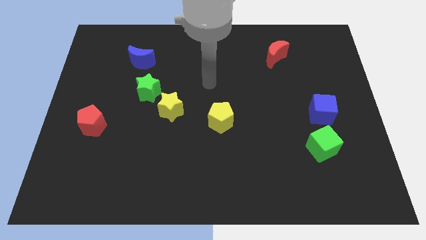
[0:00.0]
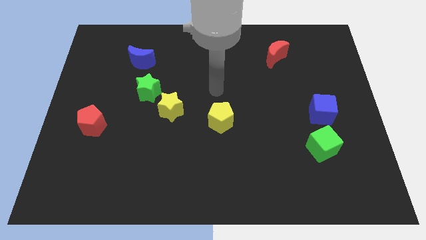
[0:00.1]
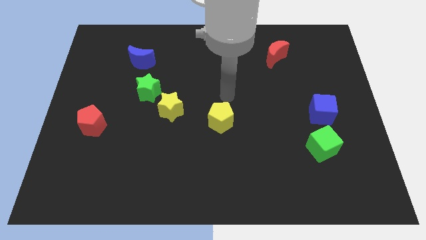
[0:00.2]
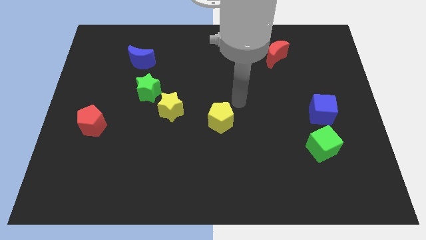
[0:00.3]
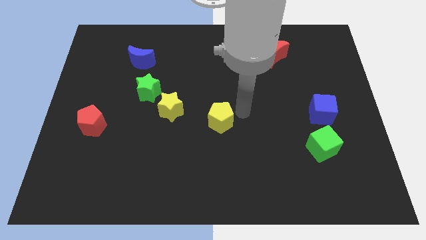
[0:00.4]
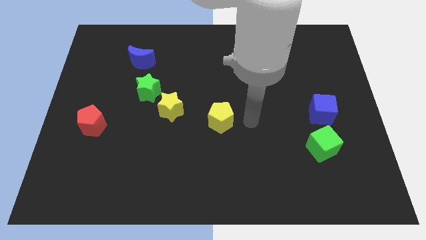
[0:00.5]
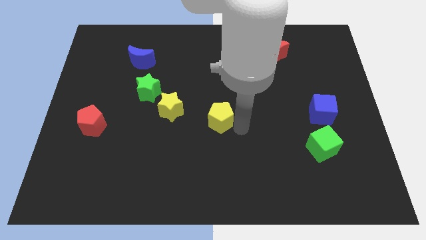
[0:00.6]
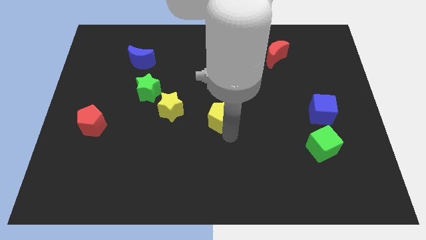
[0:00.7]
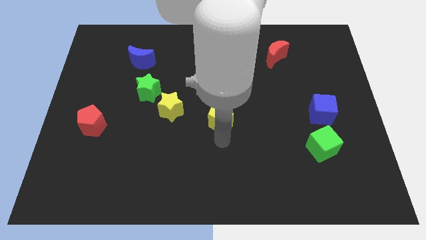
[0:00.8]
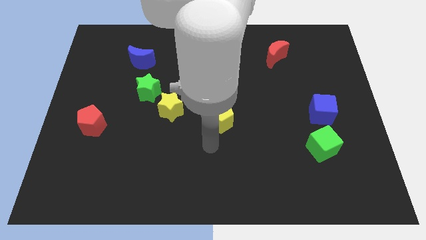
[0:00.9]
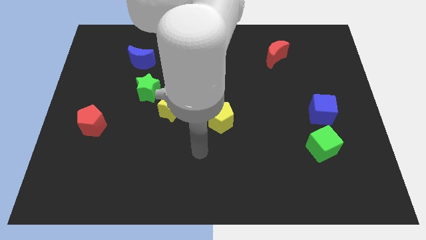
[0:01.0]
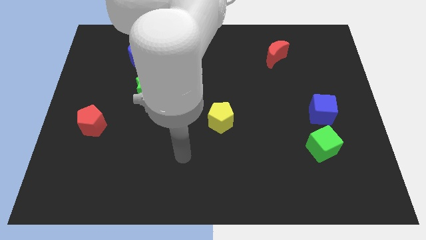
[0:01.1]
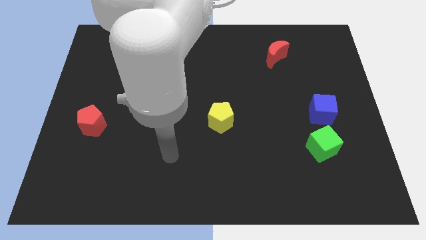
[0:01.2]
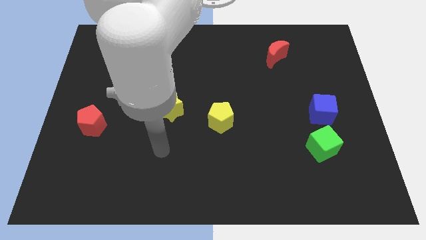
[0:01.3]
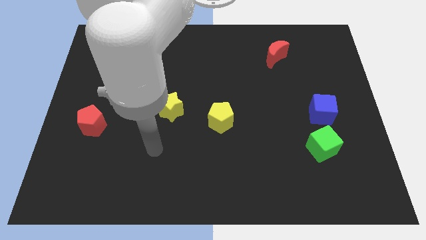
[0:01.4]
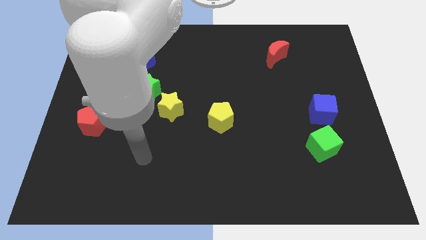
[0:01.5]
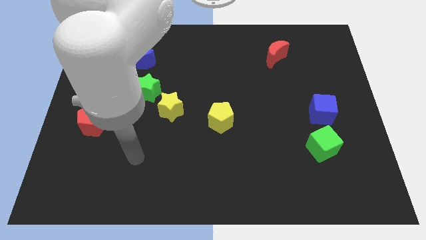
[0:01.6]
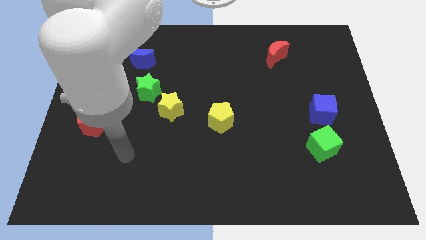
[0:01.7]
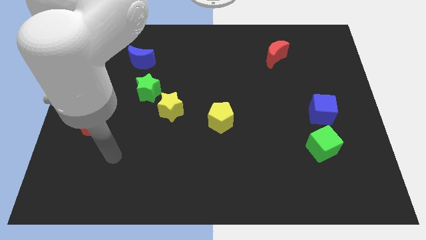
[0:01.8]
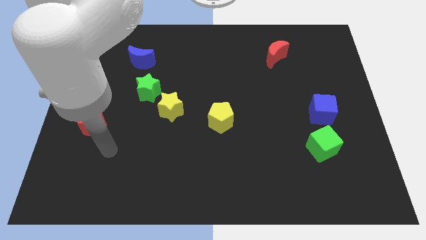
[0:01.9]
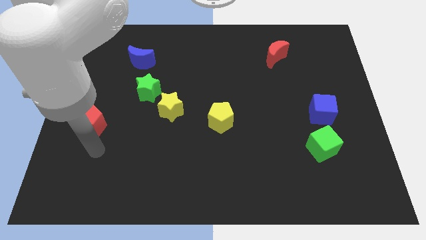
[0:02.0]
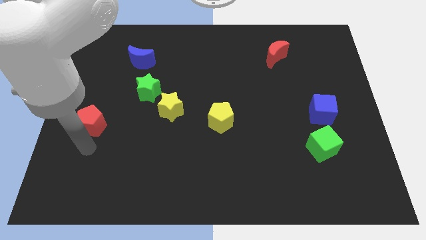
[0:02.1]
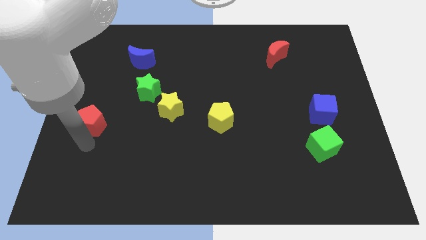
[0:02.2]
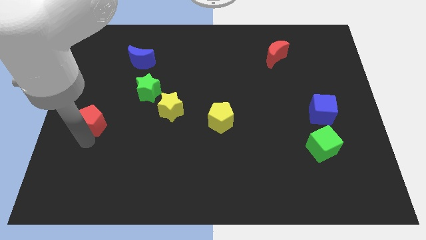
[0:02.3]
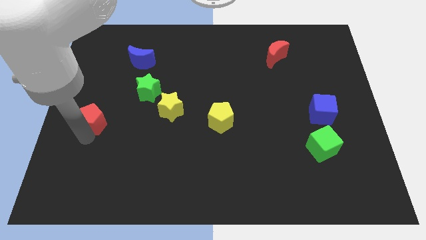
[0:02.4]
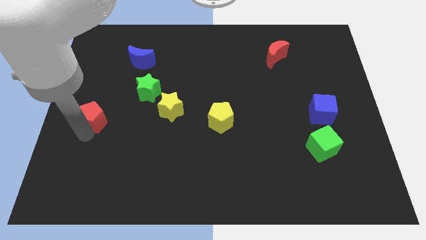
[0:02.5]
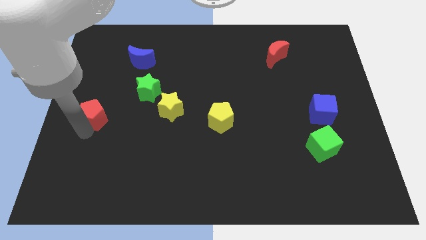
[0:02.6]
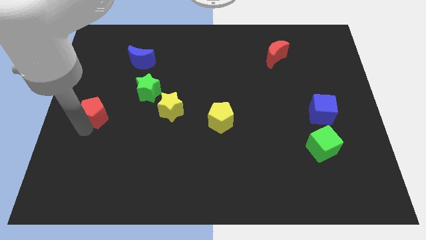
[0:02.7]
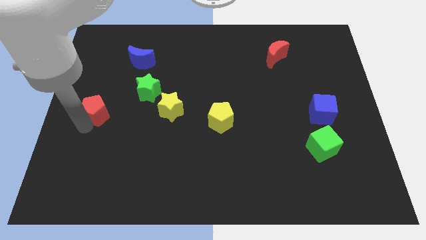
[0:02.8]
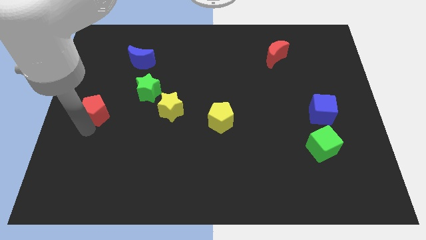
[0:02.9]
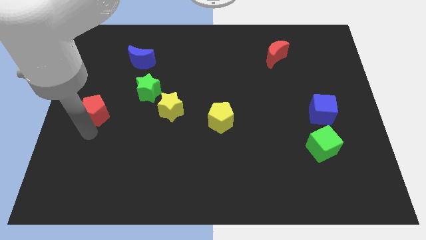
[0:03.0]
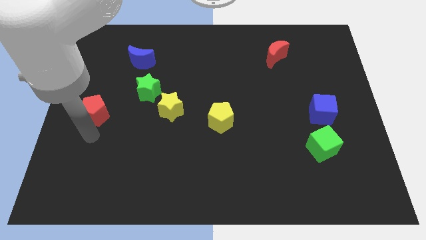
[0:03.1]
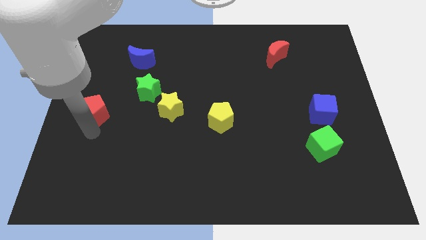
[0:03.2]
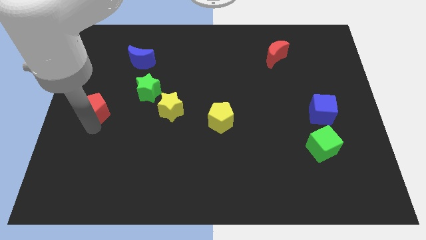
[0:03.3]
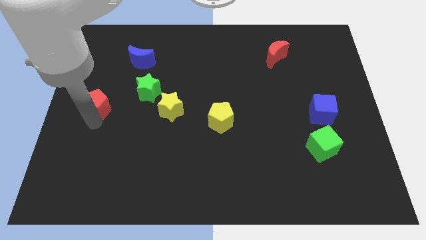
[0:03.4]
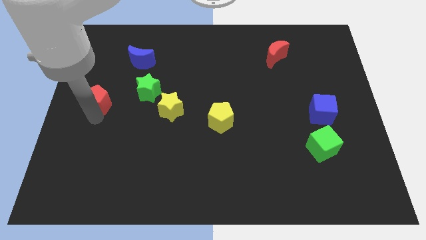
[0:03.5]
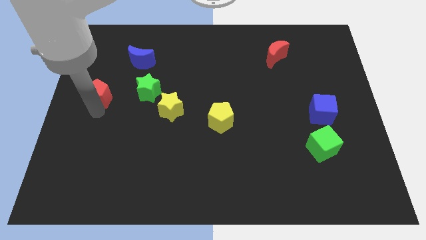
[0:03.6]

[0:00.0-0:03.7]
move the red pentagon slightly upwards

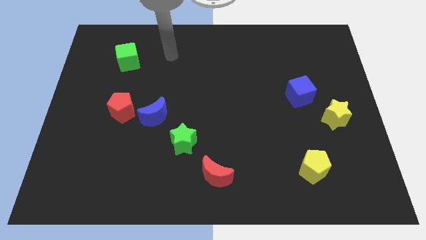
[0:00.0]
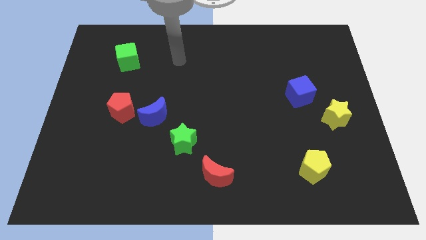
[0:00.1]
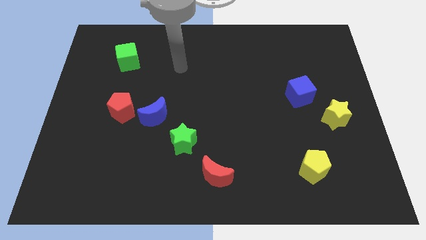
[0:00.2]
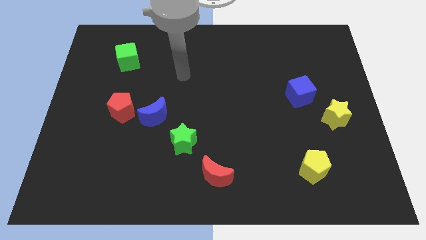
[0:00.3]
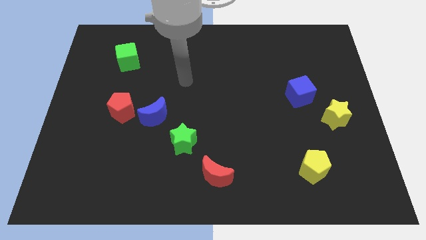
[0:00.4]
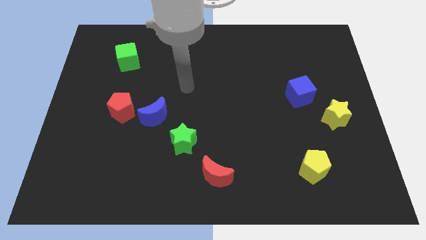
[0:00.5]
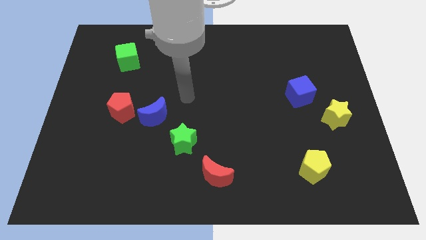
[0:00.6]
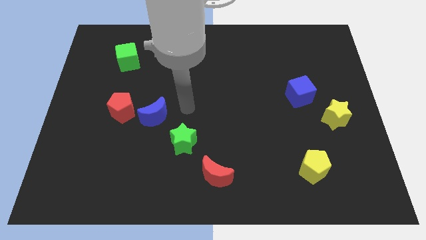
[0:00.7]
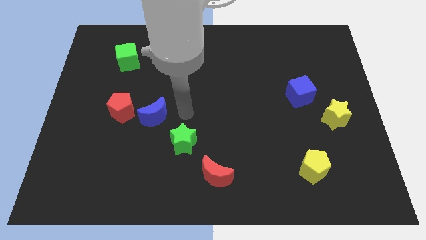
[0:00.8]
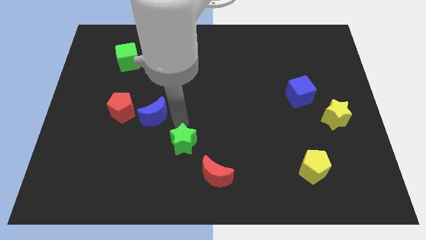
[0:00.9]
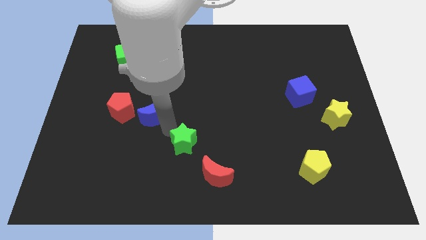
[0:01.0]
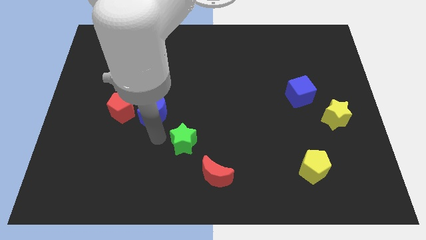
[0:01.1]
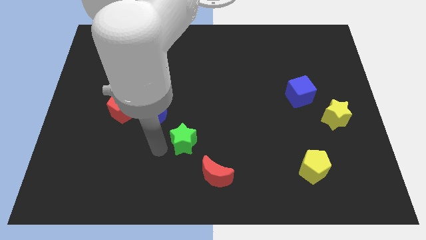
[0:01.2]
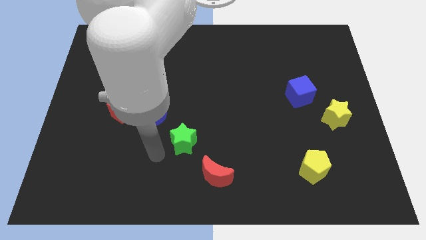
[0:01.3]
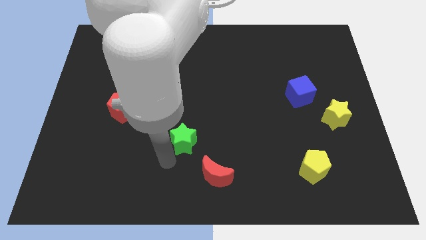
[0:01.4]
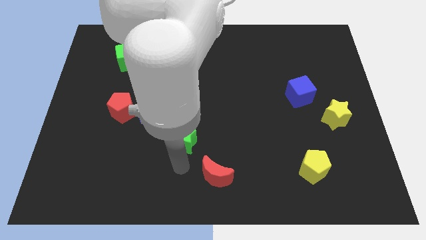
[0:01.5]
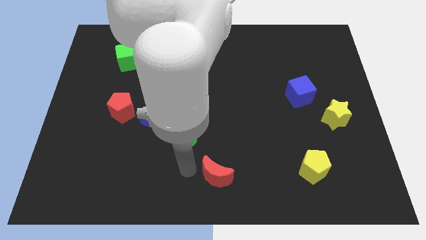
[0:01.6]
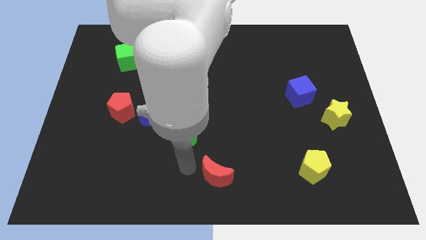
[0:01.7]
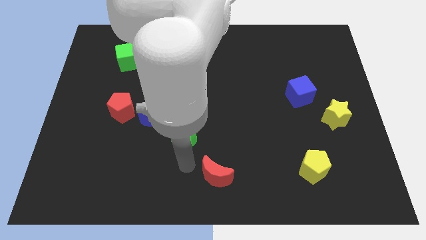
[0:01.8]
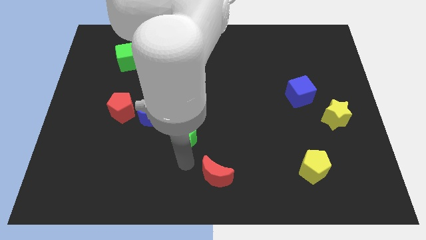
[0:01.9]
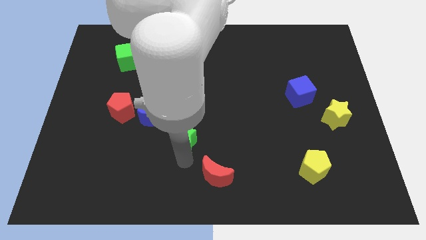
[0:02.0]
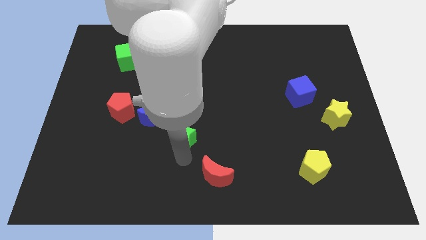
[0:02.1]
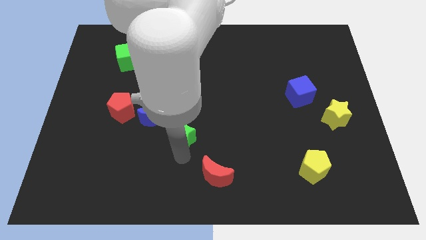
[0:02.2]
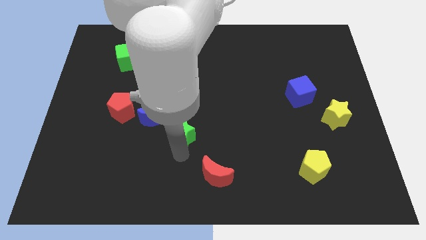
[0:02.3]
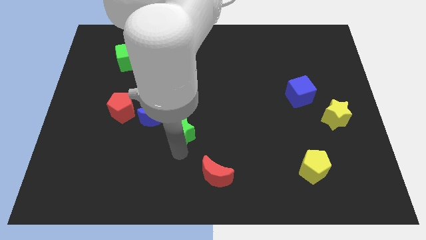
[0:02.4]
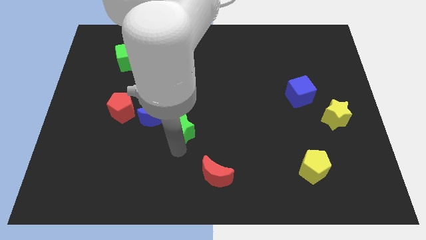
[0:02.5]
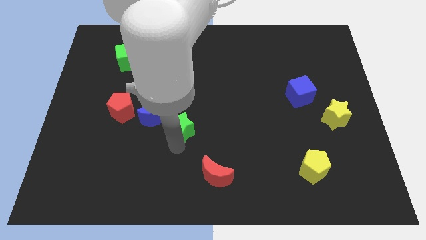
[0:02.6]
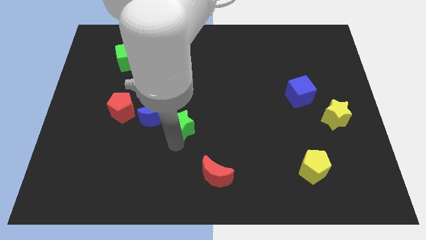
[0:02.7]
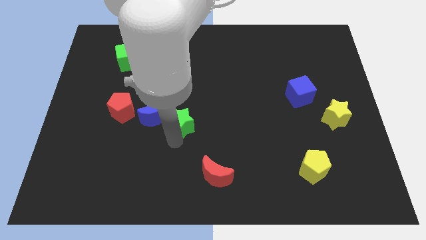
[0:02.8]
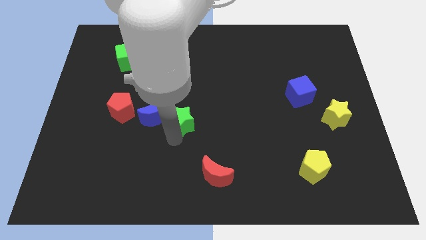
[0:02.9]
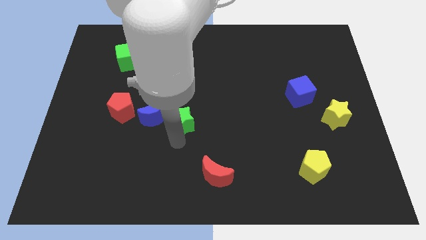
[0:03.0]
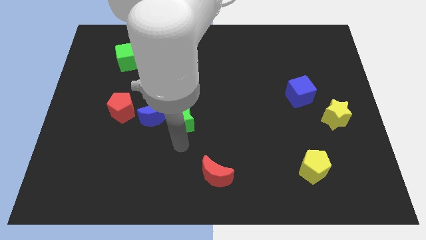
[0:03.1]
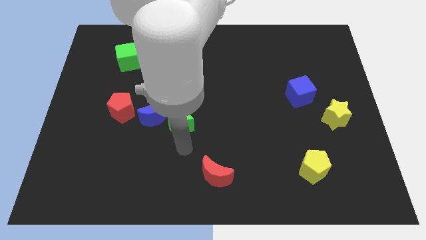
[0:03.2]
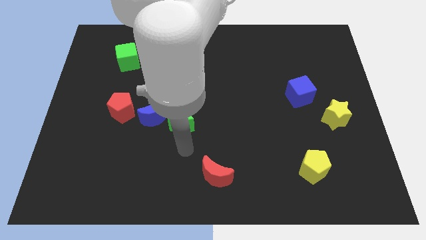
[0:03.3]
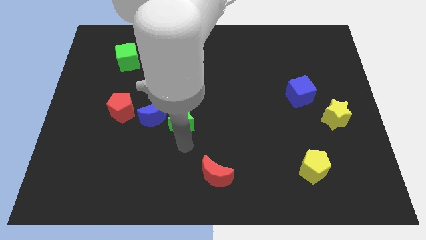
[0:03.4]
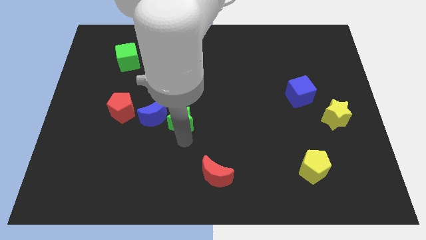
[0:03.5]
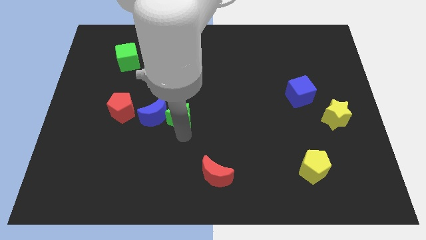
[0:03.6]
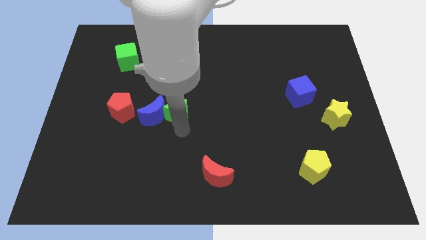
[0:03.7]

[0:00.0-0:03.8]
move the green star upwards a little

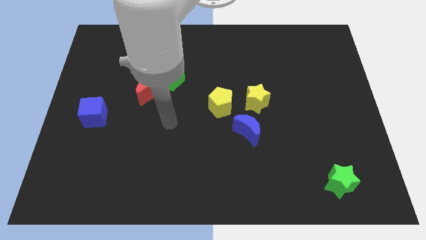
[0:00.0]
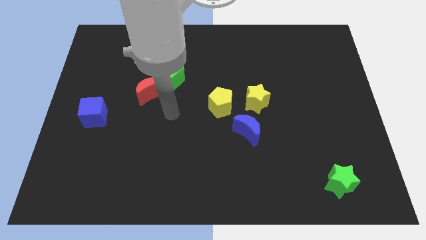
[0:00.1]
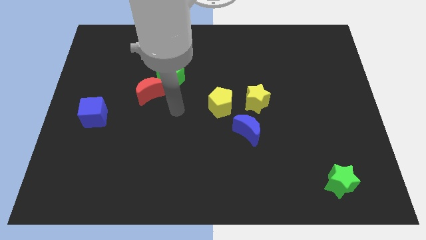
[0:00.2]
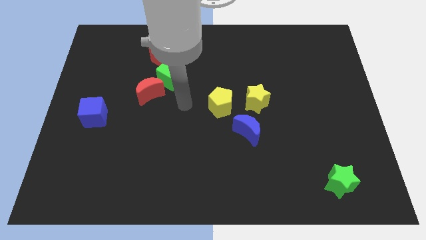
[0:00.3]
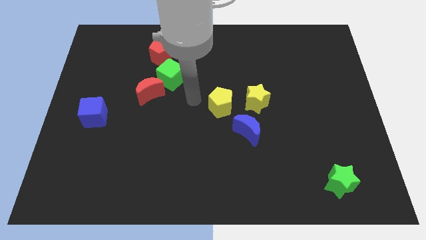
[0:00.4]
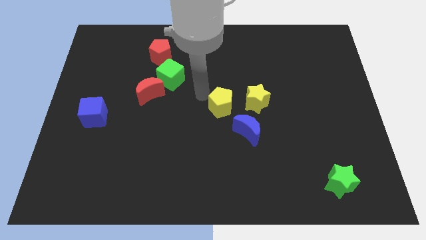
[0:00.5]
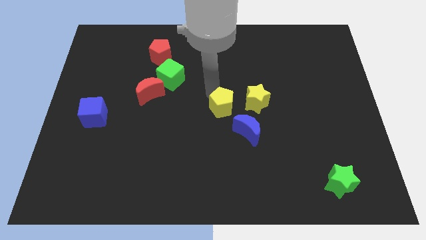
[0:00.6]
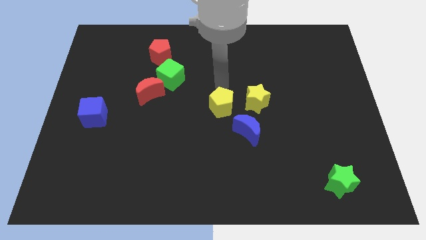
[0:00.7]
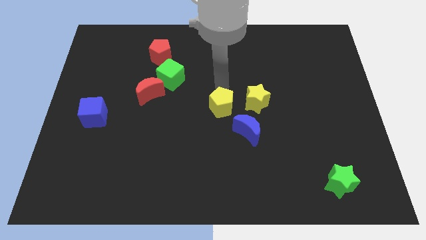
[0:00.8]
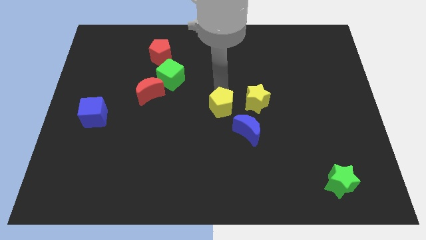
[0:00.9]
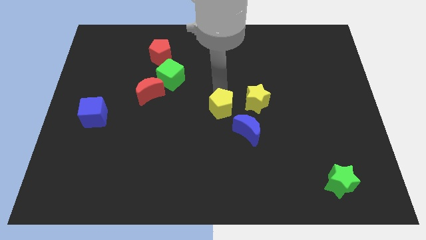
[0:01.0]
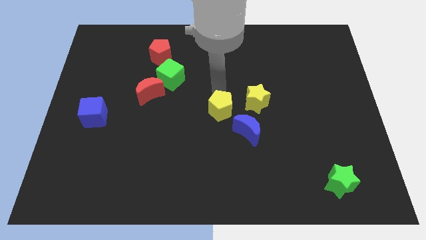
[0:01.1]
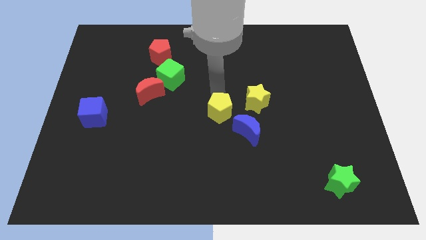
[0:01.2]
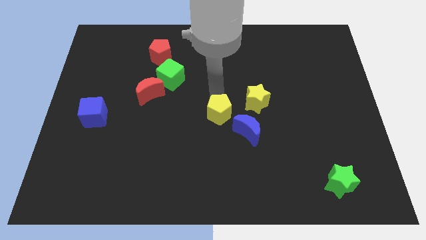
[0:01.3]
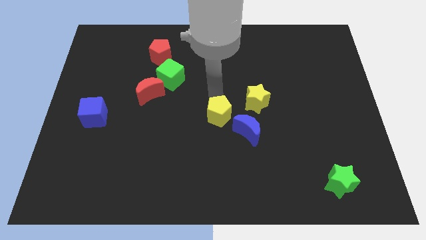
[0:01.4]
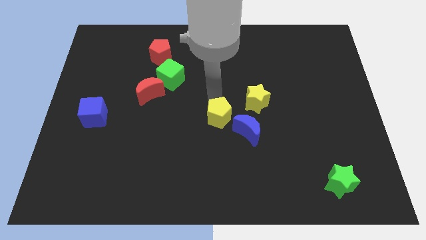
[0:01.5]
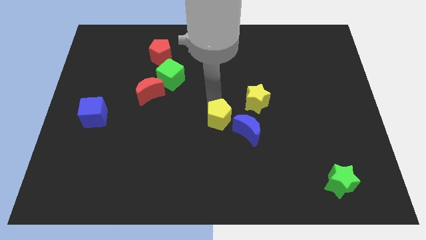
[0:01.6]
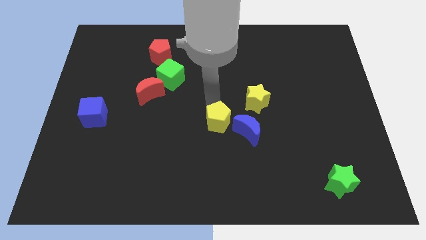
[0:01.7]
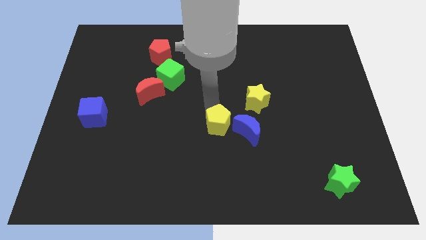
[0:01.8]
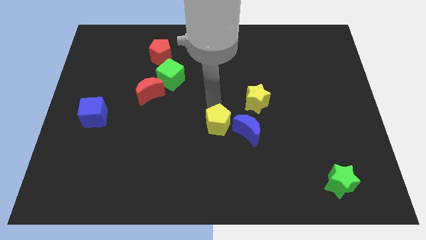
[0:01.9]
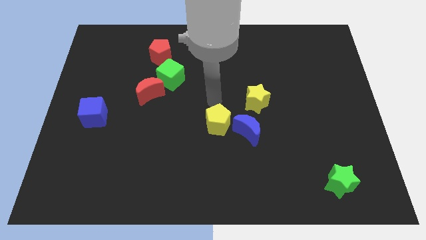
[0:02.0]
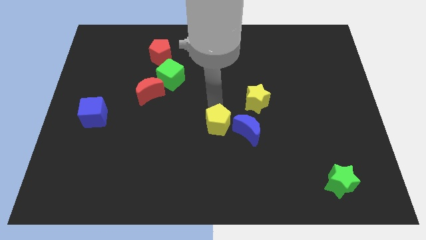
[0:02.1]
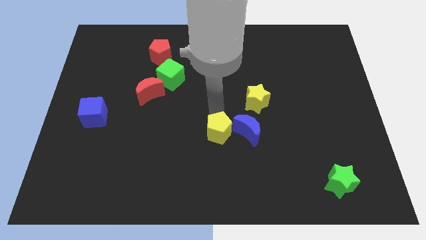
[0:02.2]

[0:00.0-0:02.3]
slightly slide the yellow pentagon down
